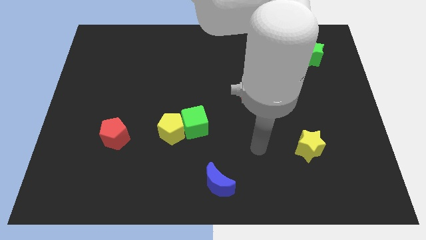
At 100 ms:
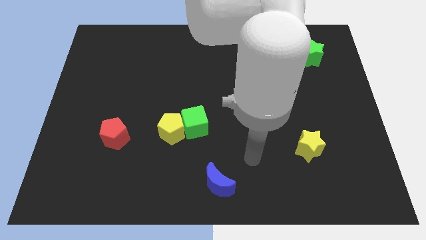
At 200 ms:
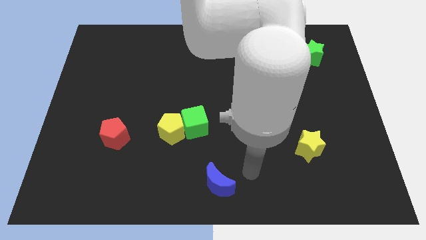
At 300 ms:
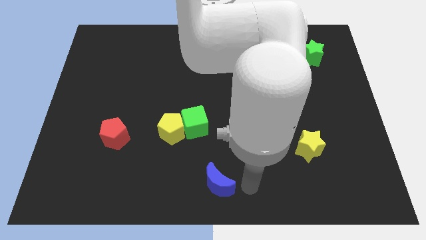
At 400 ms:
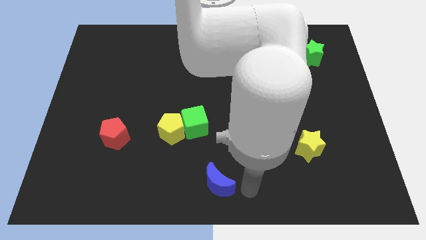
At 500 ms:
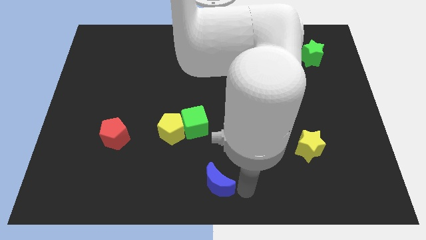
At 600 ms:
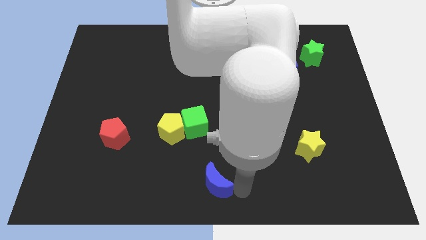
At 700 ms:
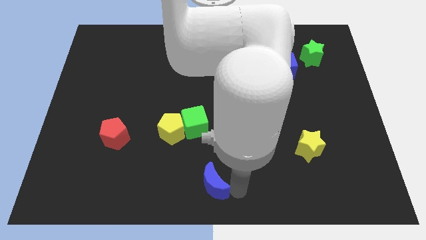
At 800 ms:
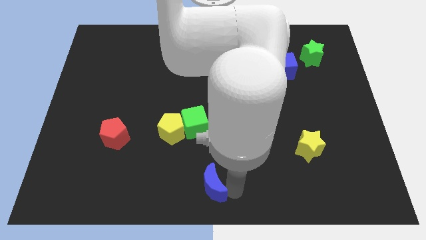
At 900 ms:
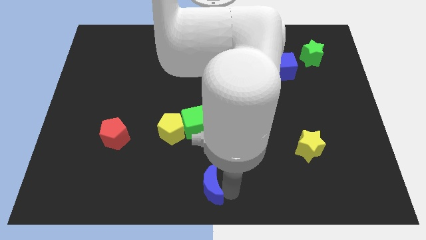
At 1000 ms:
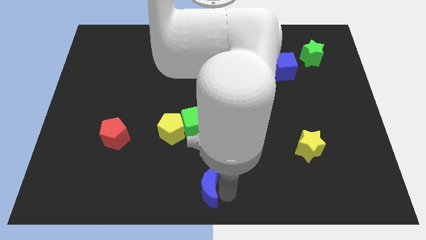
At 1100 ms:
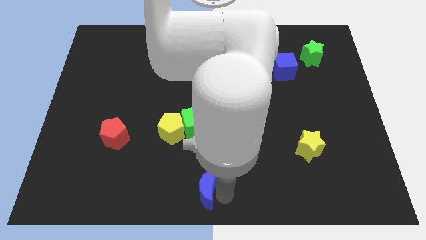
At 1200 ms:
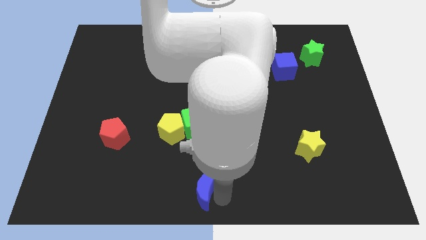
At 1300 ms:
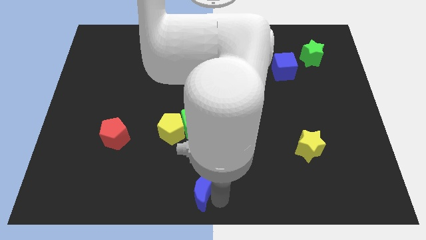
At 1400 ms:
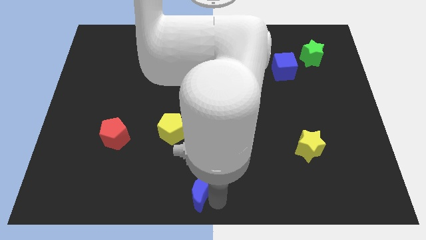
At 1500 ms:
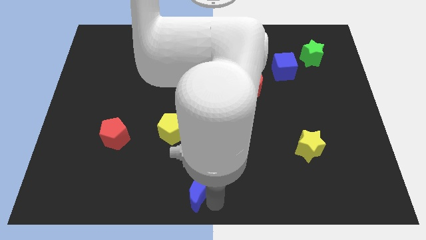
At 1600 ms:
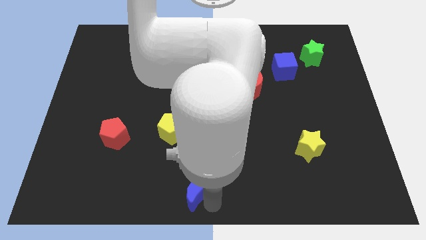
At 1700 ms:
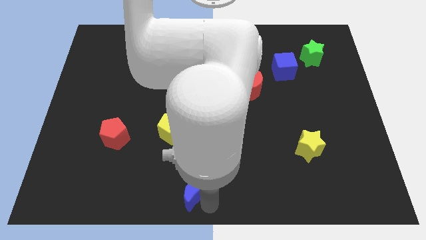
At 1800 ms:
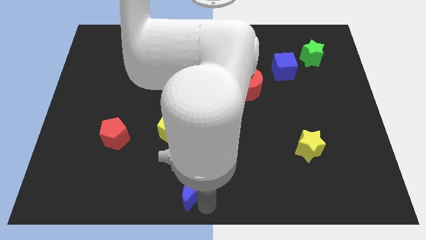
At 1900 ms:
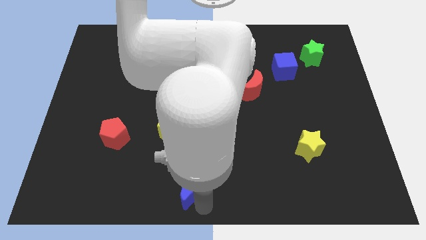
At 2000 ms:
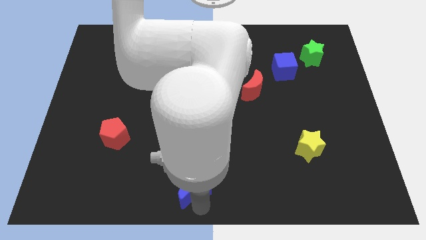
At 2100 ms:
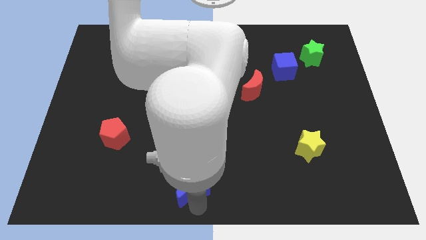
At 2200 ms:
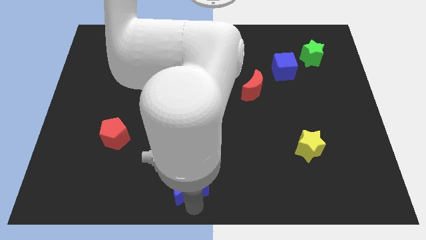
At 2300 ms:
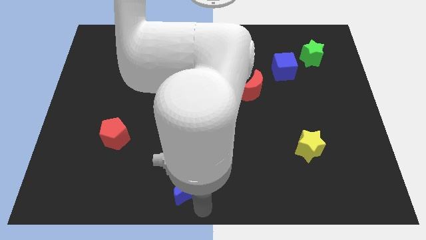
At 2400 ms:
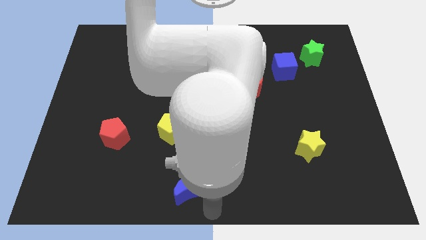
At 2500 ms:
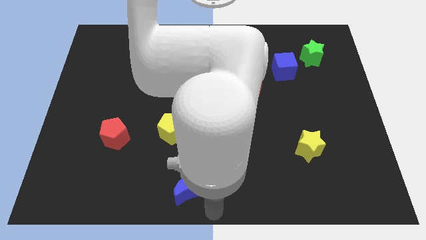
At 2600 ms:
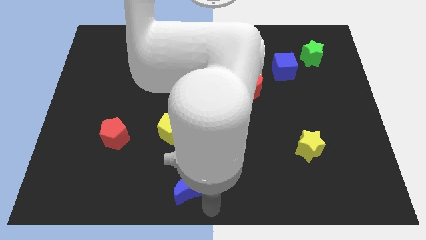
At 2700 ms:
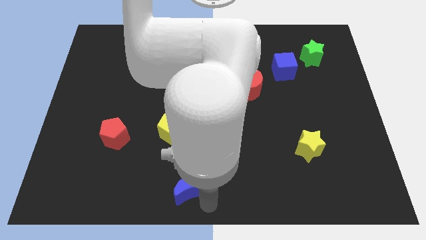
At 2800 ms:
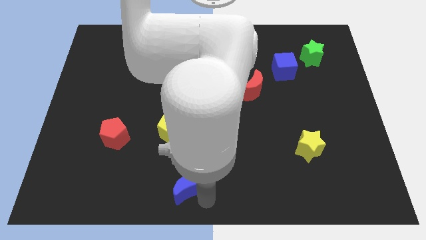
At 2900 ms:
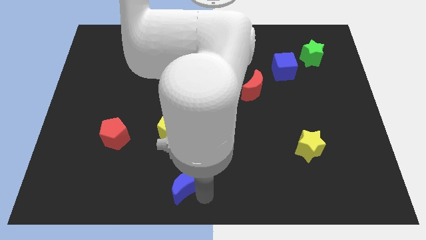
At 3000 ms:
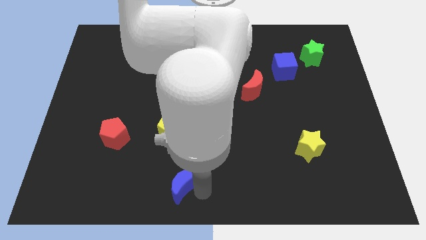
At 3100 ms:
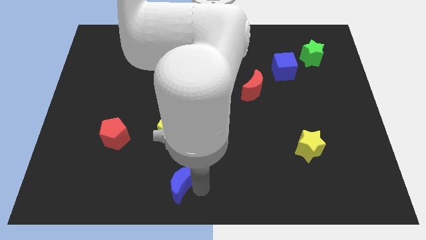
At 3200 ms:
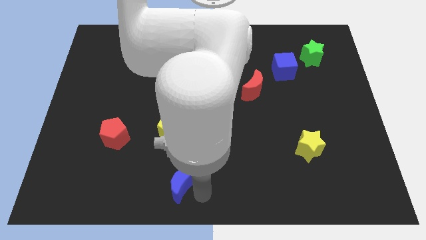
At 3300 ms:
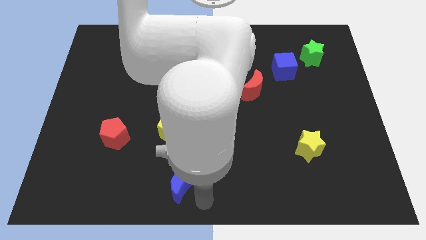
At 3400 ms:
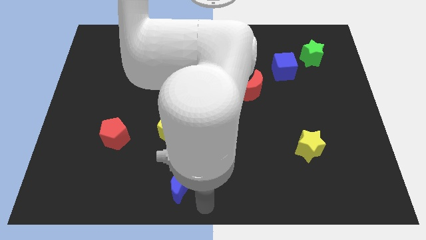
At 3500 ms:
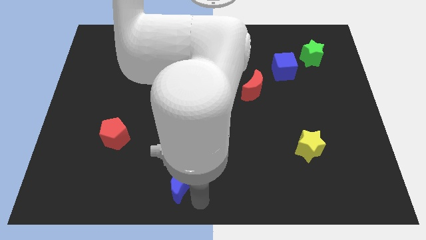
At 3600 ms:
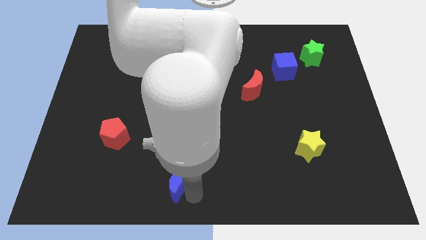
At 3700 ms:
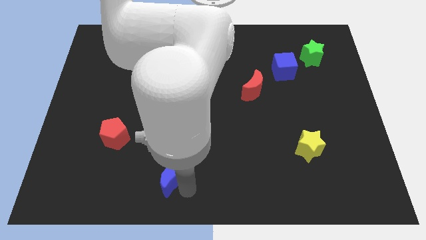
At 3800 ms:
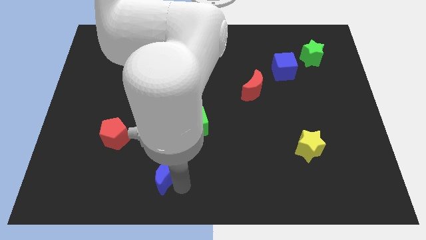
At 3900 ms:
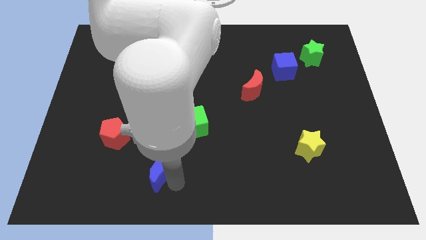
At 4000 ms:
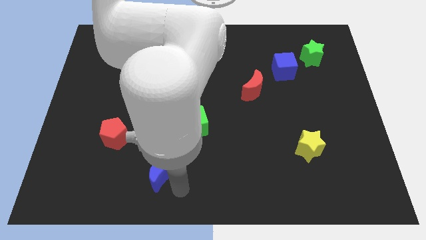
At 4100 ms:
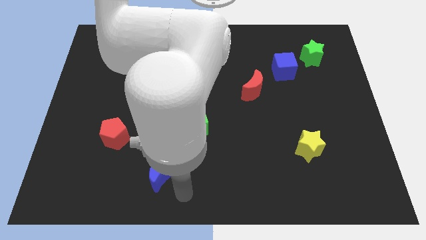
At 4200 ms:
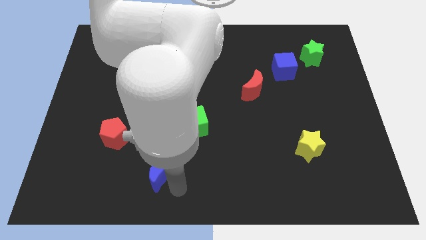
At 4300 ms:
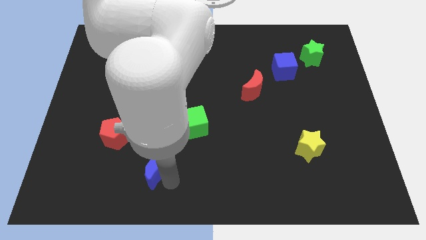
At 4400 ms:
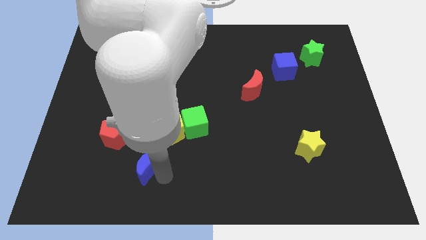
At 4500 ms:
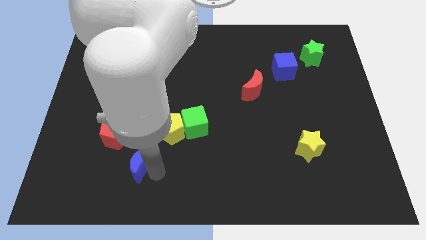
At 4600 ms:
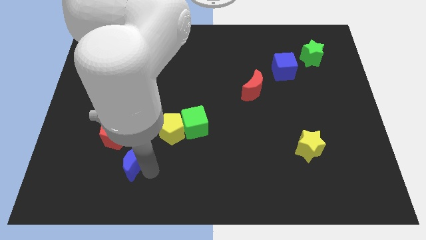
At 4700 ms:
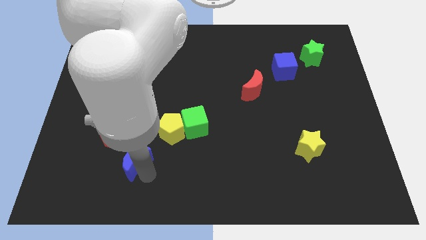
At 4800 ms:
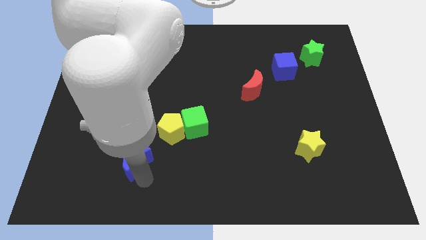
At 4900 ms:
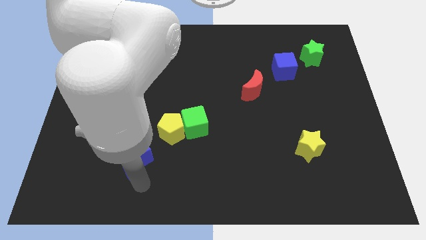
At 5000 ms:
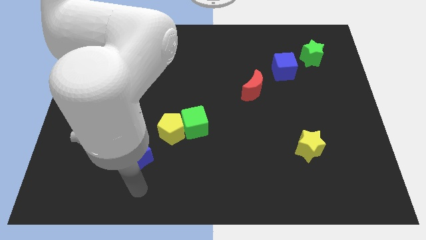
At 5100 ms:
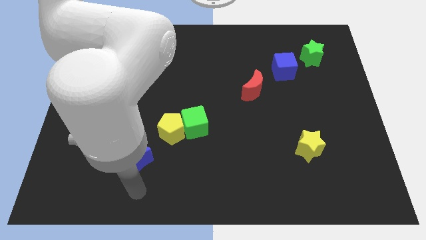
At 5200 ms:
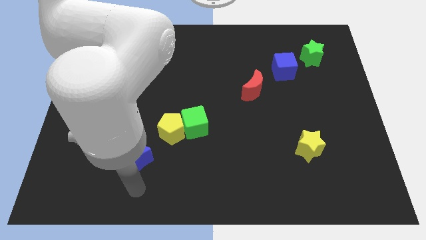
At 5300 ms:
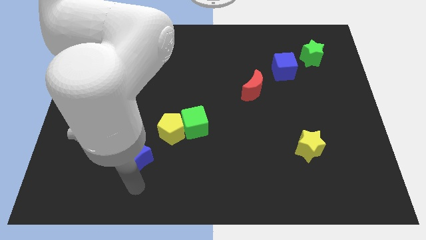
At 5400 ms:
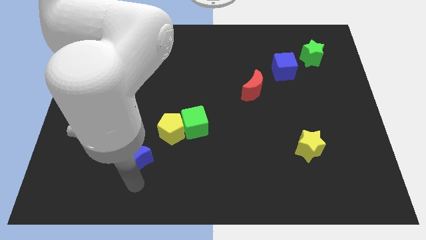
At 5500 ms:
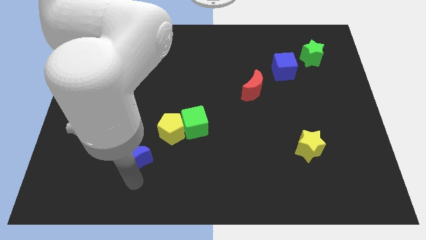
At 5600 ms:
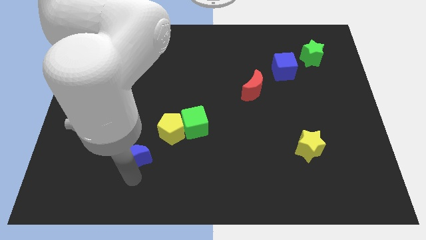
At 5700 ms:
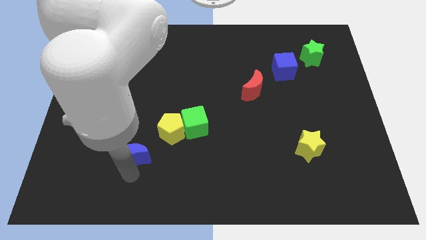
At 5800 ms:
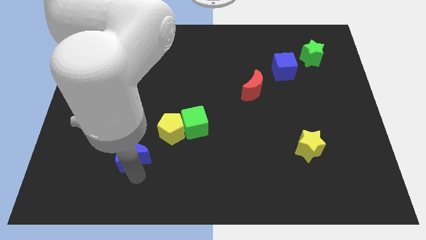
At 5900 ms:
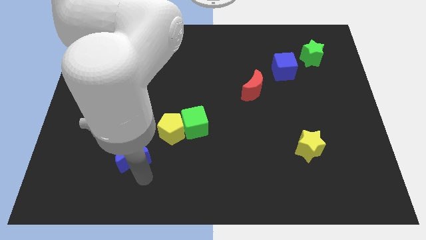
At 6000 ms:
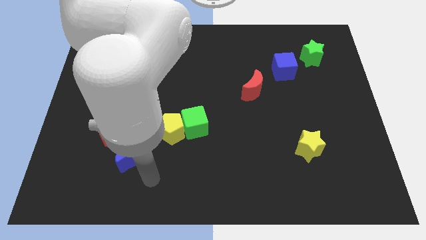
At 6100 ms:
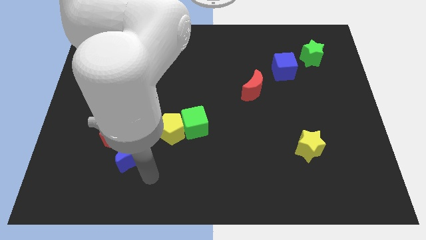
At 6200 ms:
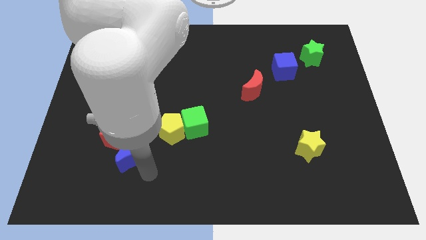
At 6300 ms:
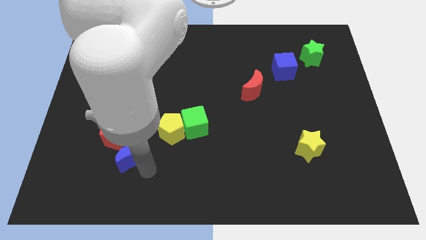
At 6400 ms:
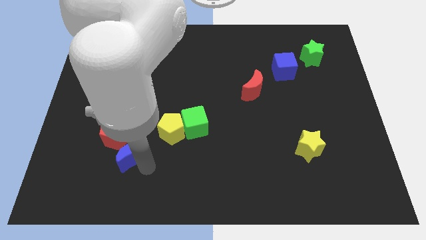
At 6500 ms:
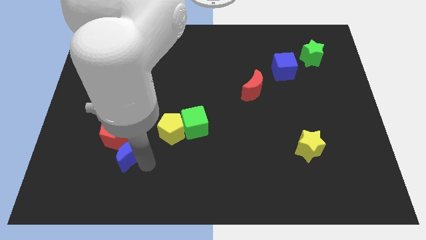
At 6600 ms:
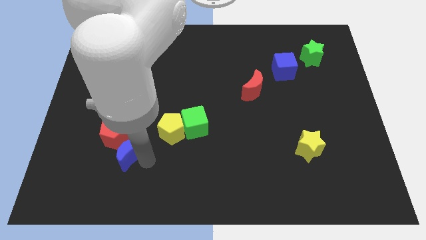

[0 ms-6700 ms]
put the blue moon to the red pentagon
